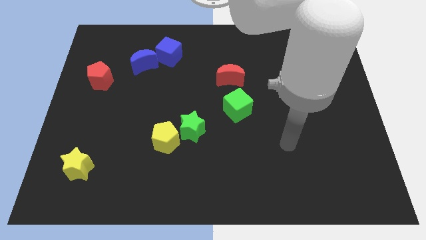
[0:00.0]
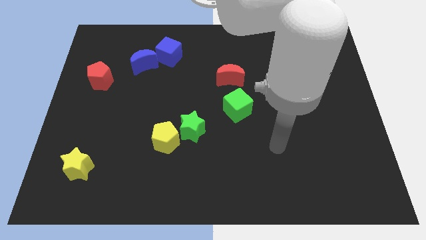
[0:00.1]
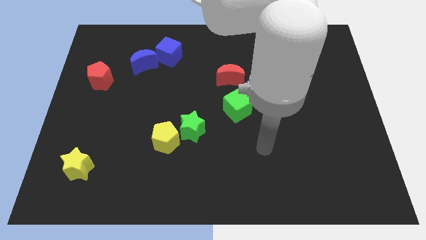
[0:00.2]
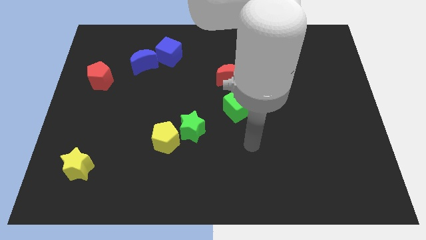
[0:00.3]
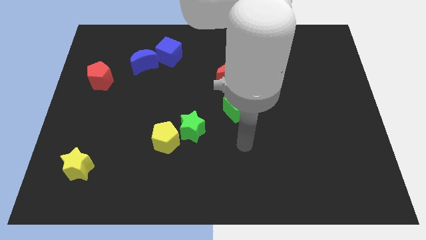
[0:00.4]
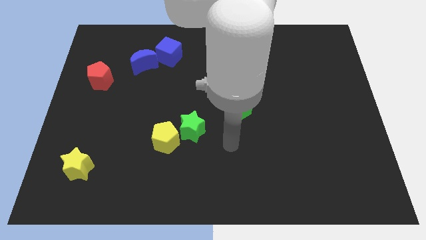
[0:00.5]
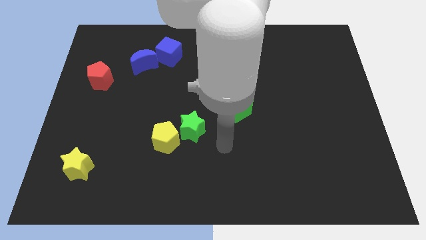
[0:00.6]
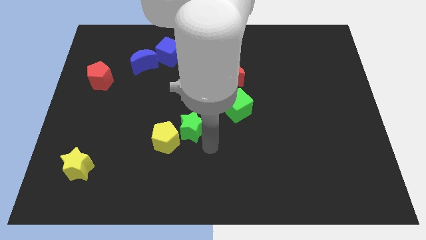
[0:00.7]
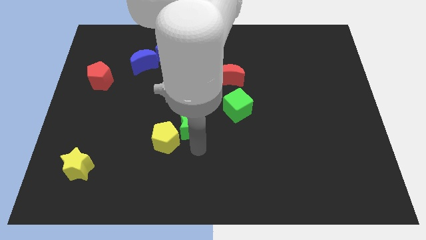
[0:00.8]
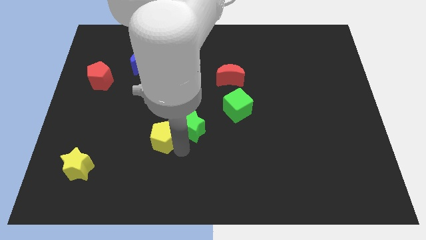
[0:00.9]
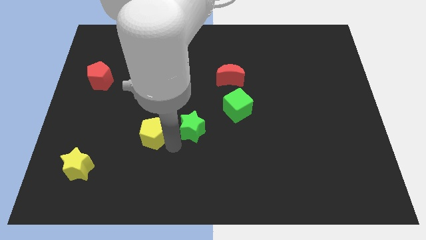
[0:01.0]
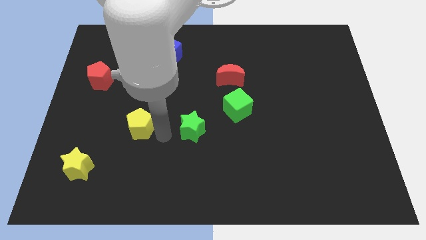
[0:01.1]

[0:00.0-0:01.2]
pull the green star apart from the yellow pentagon

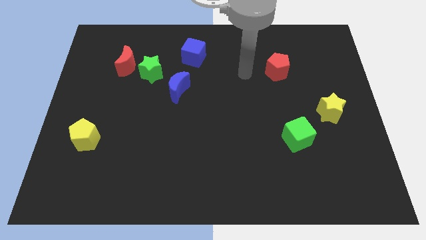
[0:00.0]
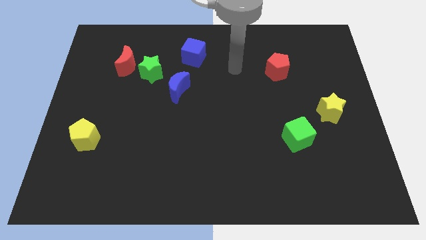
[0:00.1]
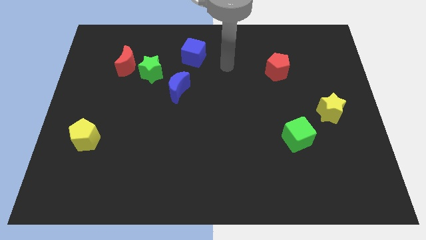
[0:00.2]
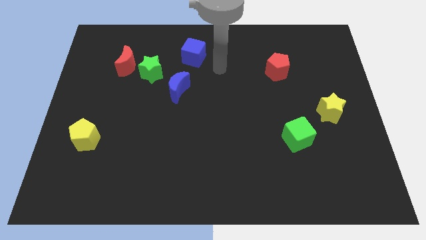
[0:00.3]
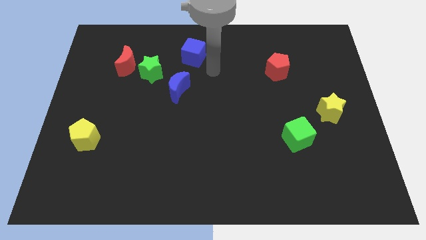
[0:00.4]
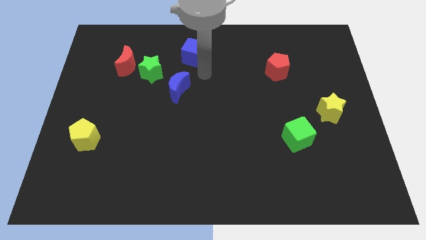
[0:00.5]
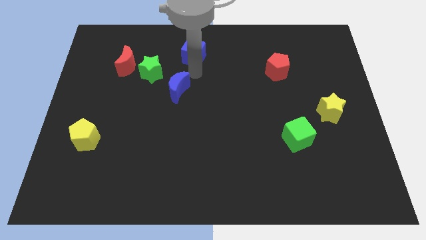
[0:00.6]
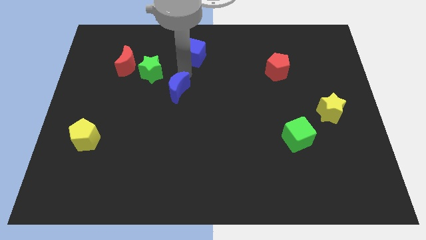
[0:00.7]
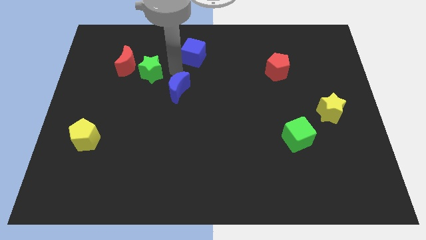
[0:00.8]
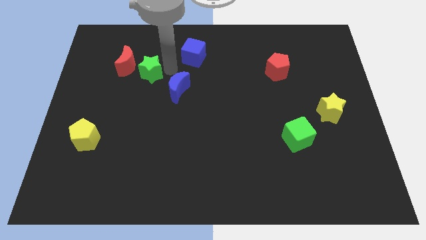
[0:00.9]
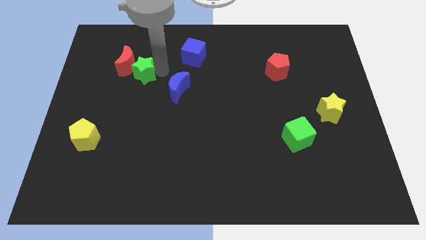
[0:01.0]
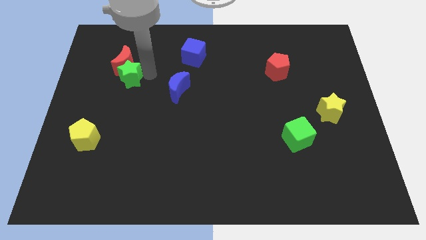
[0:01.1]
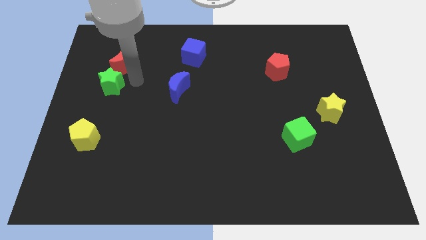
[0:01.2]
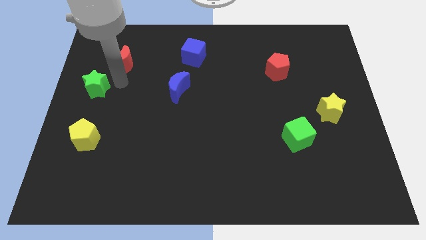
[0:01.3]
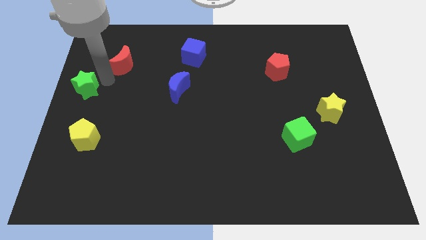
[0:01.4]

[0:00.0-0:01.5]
pull the red moon apart from the green star

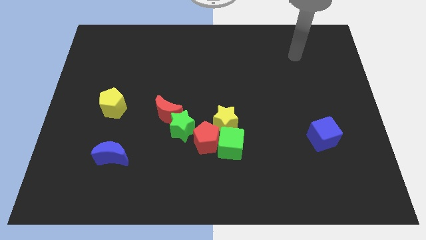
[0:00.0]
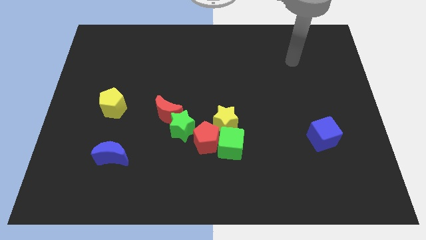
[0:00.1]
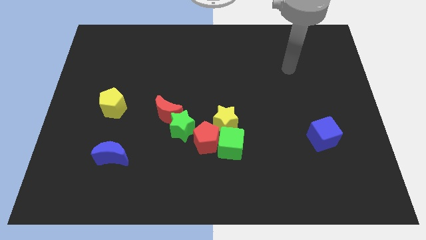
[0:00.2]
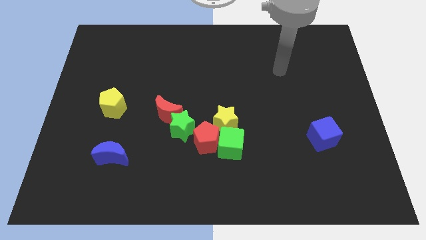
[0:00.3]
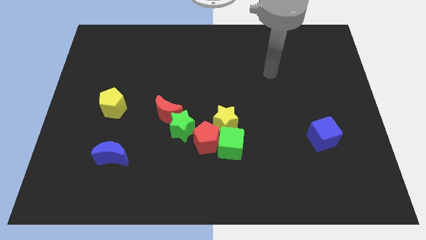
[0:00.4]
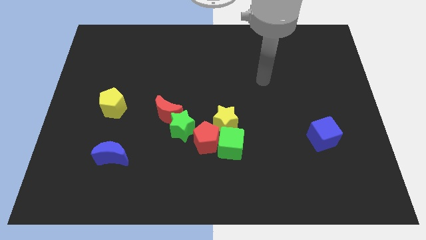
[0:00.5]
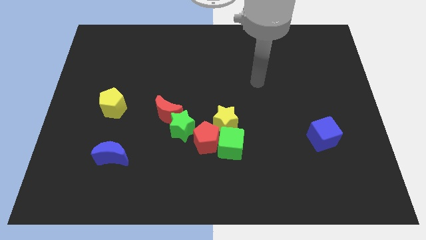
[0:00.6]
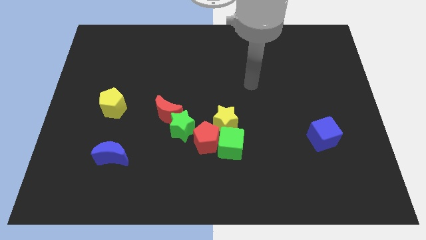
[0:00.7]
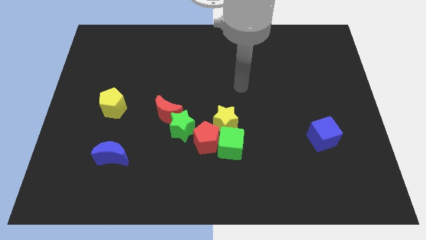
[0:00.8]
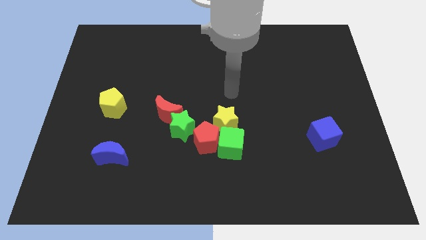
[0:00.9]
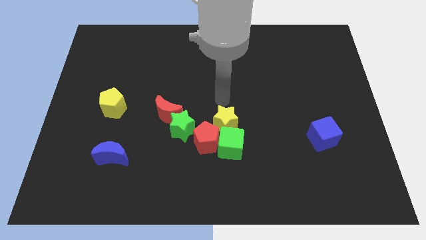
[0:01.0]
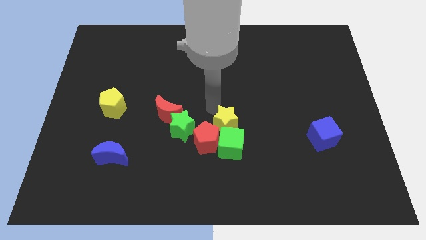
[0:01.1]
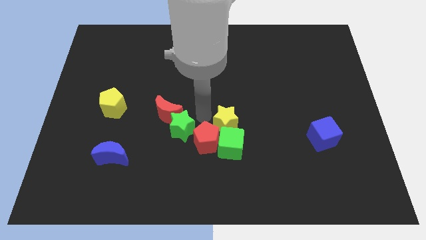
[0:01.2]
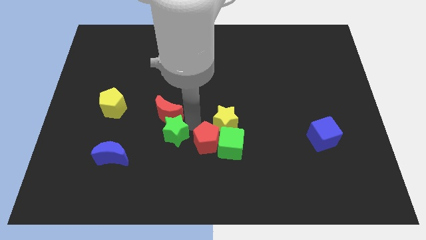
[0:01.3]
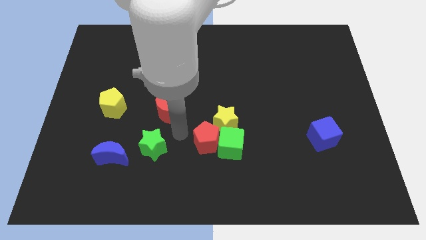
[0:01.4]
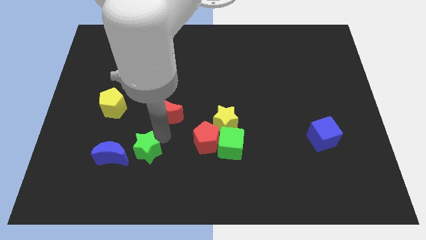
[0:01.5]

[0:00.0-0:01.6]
separate the red moon from the green star

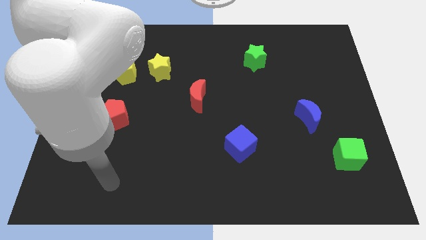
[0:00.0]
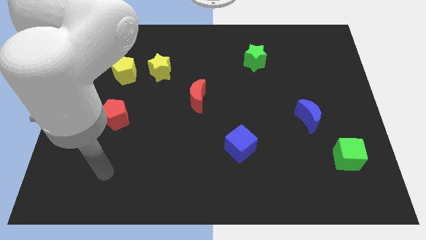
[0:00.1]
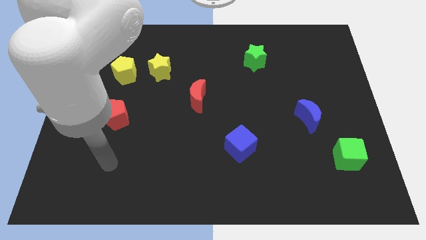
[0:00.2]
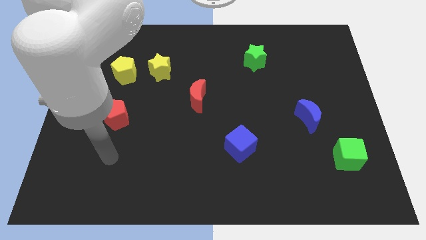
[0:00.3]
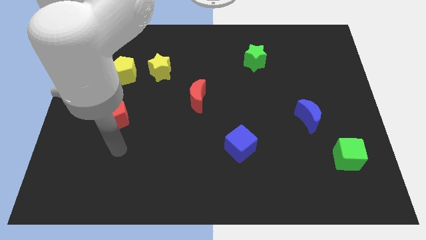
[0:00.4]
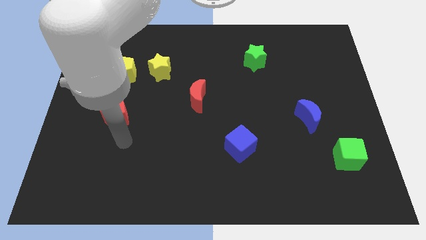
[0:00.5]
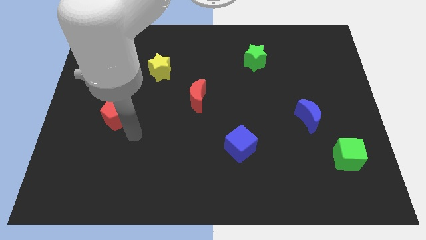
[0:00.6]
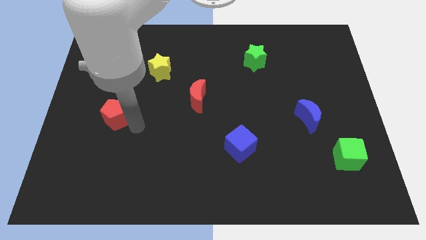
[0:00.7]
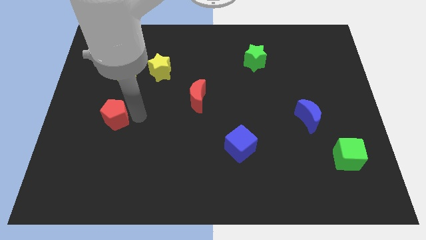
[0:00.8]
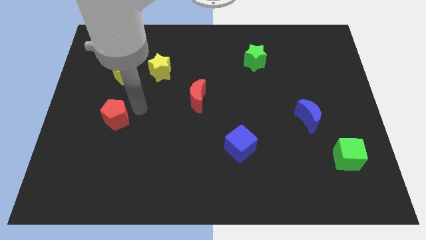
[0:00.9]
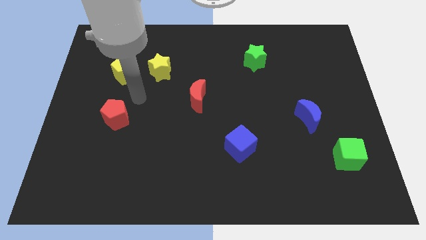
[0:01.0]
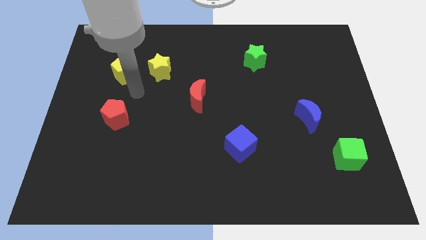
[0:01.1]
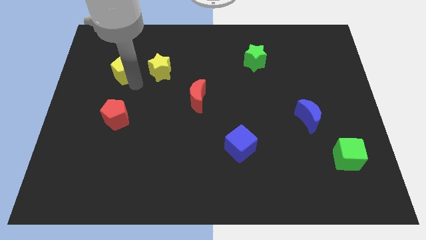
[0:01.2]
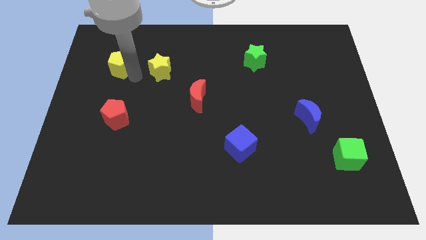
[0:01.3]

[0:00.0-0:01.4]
pull the yellow star apart from the yellow pentagon

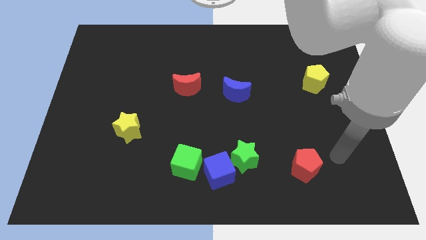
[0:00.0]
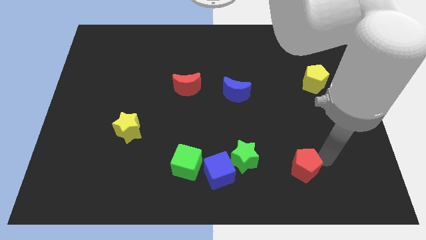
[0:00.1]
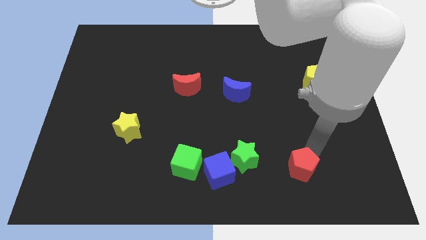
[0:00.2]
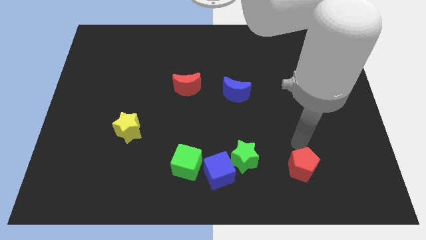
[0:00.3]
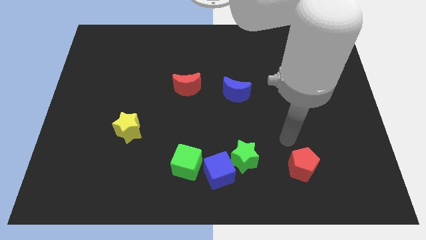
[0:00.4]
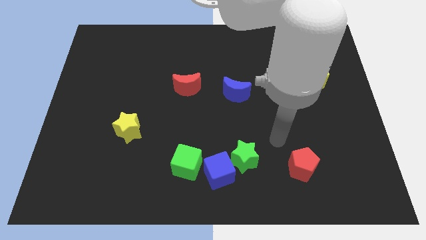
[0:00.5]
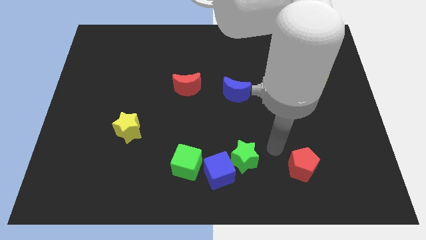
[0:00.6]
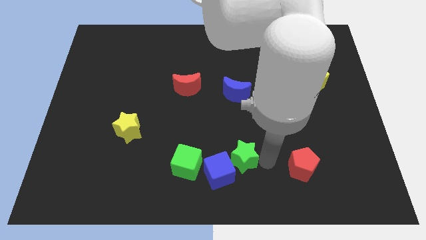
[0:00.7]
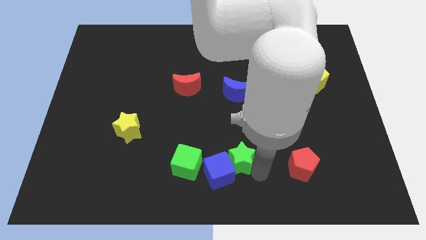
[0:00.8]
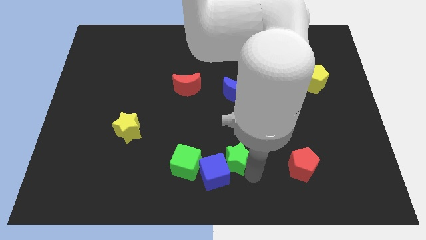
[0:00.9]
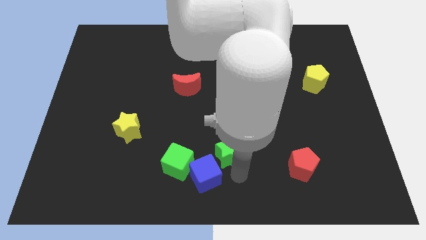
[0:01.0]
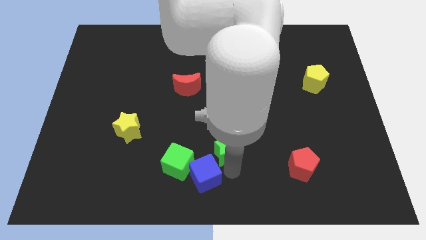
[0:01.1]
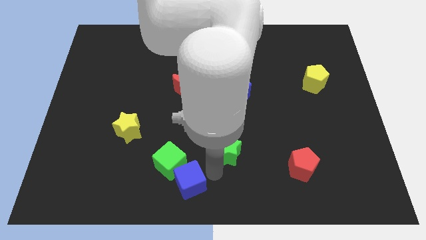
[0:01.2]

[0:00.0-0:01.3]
separate the green star from the blue cube

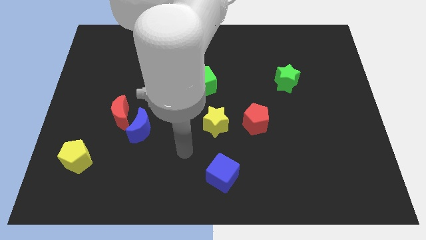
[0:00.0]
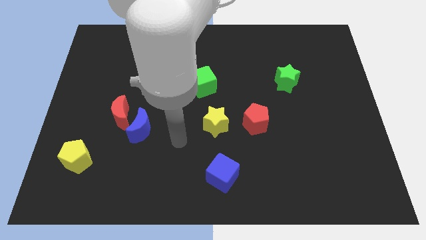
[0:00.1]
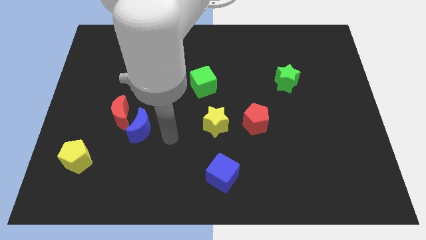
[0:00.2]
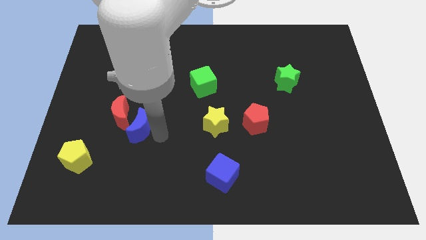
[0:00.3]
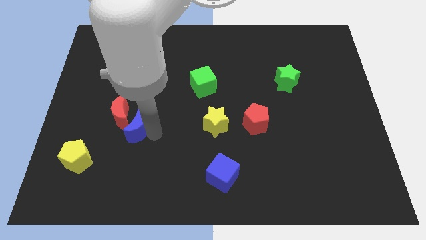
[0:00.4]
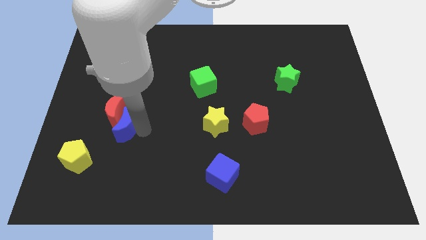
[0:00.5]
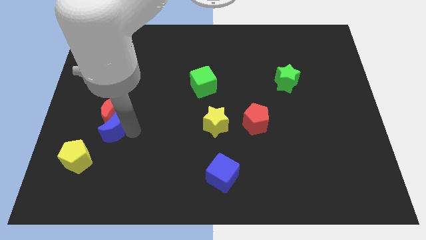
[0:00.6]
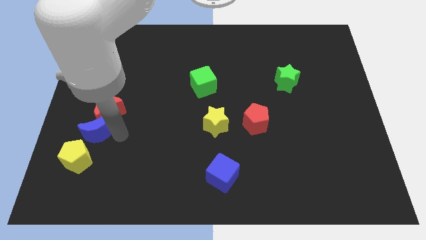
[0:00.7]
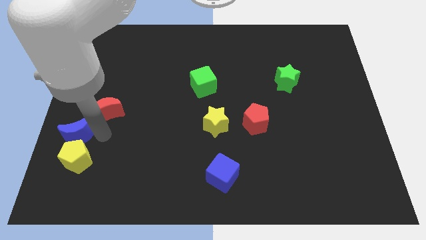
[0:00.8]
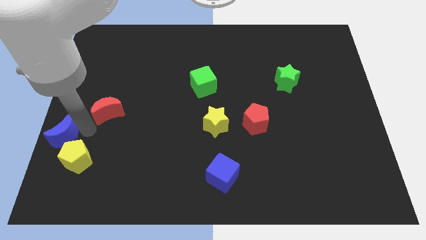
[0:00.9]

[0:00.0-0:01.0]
separate the red moon from the blue moon

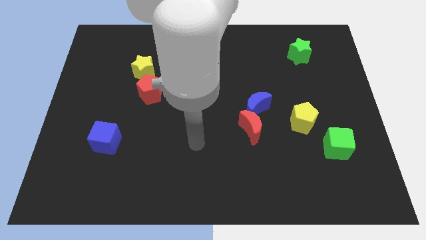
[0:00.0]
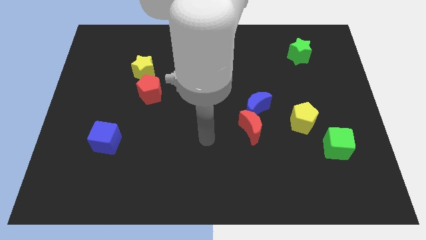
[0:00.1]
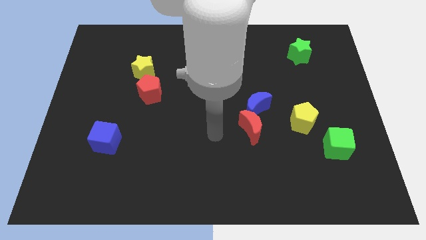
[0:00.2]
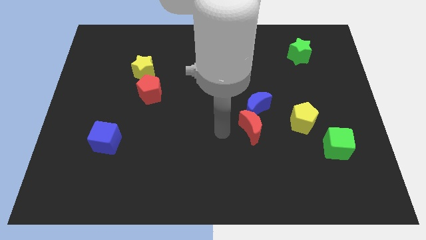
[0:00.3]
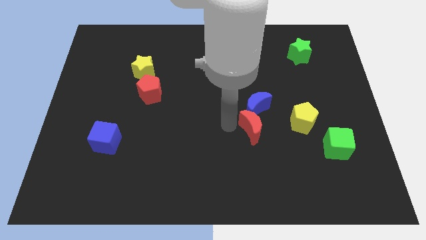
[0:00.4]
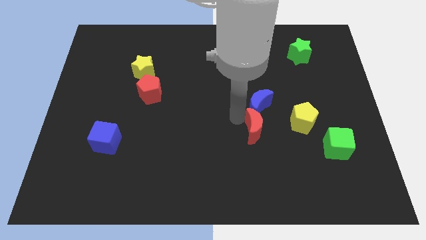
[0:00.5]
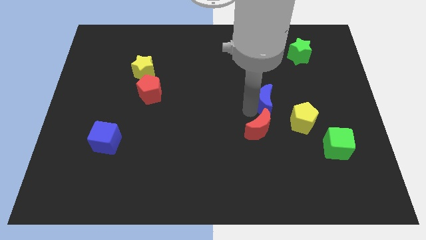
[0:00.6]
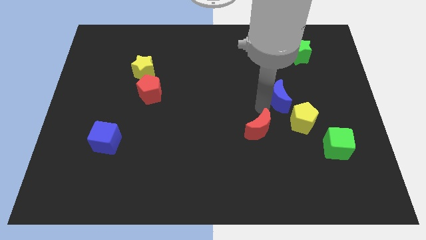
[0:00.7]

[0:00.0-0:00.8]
pull the red moon apart from the blue moon

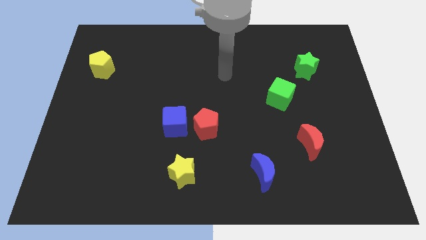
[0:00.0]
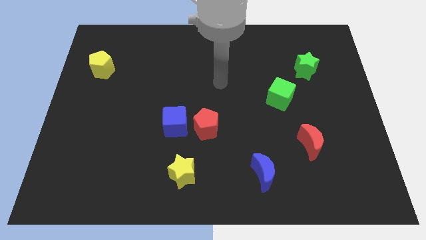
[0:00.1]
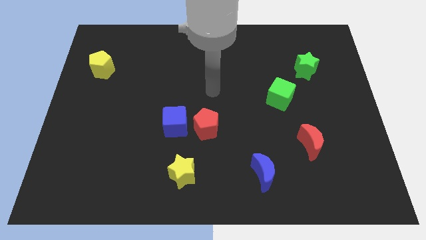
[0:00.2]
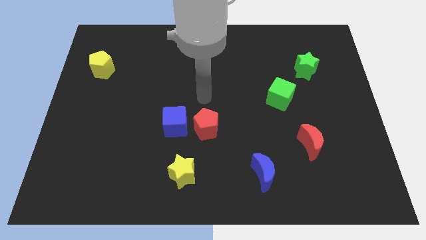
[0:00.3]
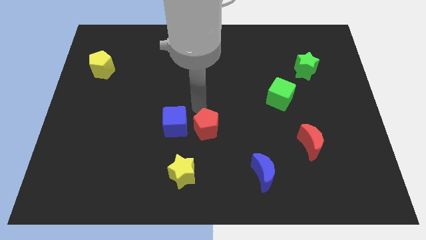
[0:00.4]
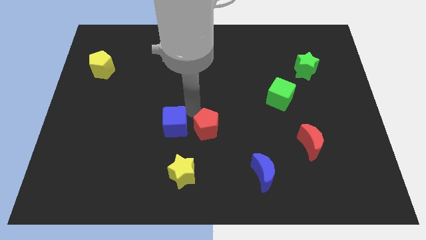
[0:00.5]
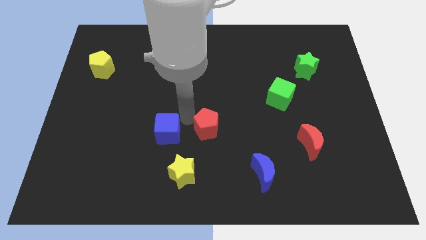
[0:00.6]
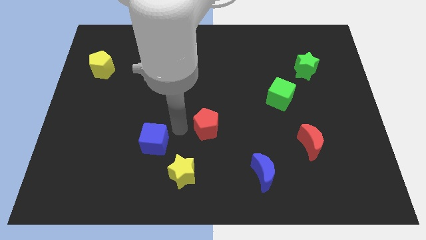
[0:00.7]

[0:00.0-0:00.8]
separate the red pentagon from the blue cube
